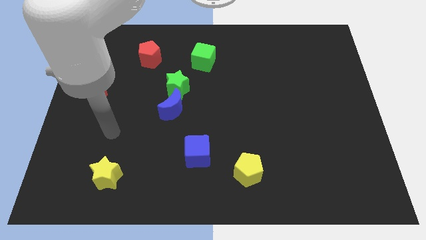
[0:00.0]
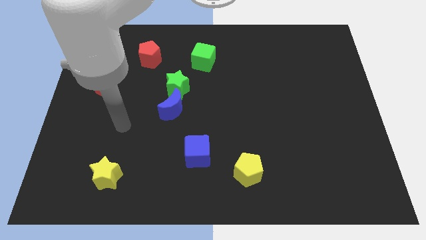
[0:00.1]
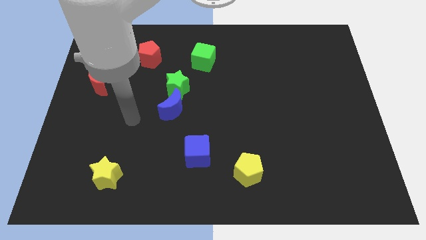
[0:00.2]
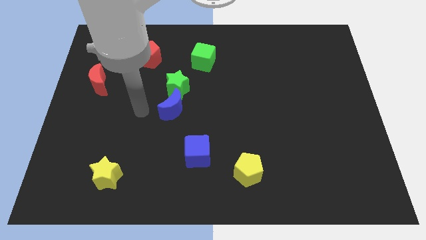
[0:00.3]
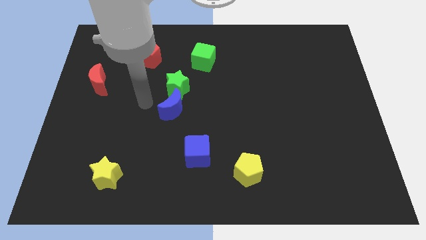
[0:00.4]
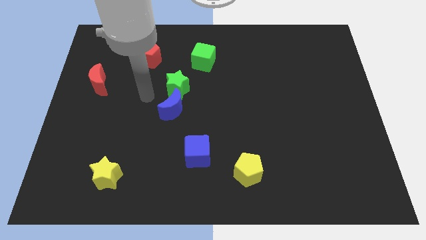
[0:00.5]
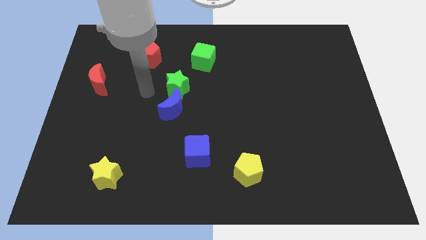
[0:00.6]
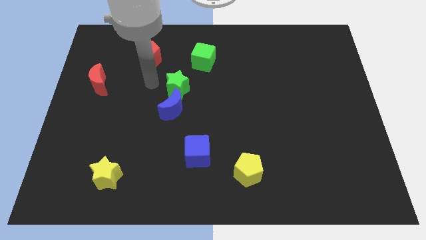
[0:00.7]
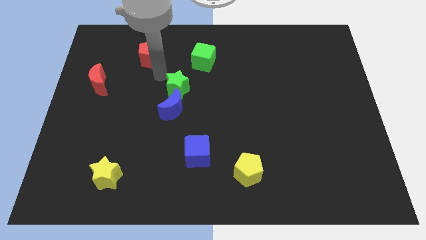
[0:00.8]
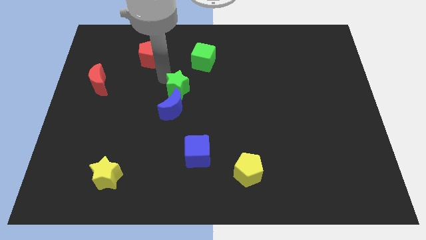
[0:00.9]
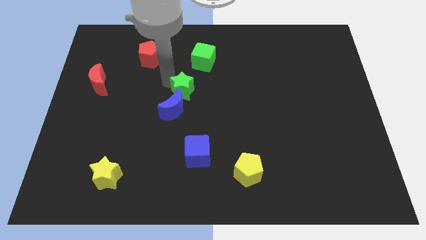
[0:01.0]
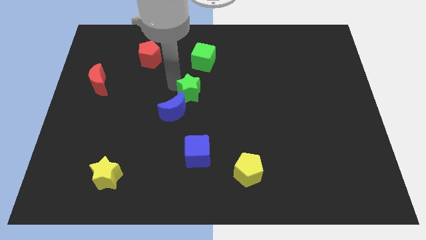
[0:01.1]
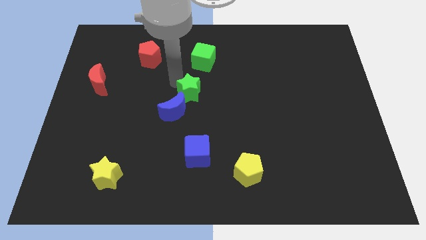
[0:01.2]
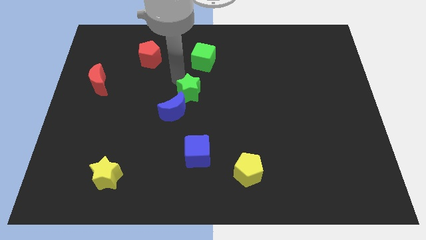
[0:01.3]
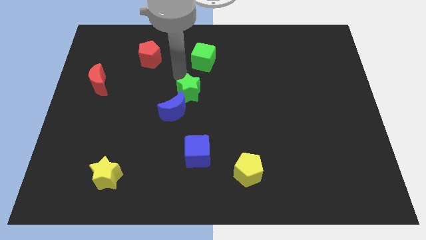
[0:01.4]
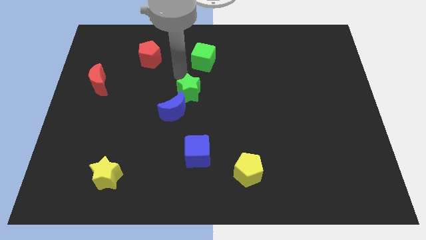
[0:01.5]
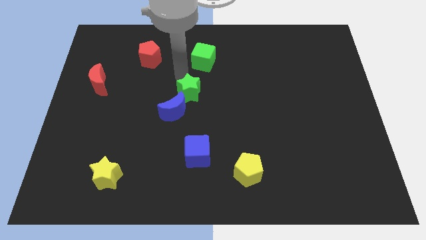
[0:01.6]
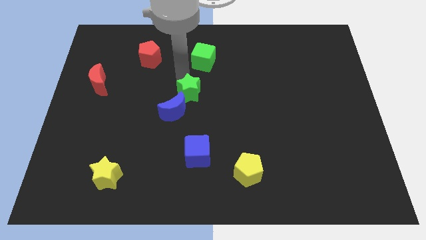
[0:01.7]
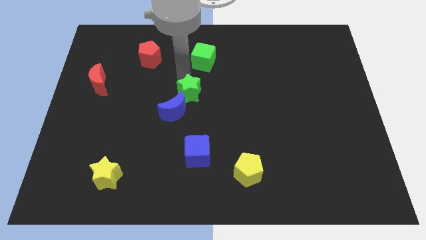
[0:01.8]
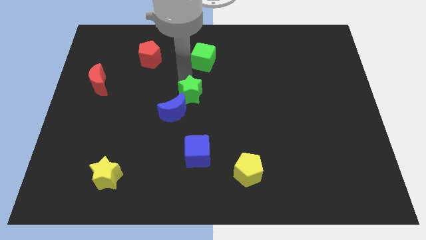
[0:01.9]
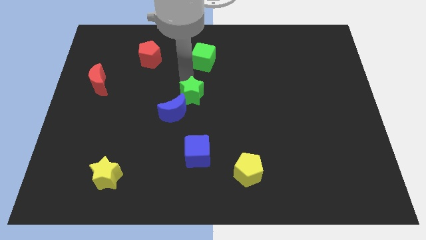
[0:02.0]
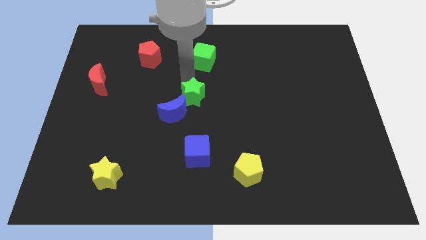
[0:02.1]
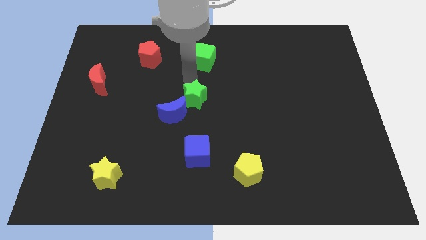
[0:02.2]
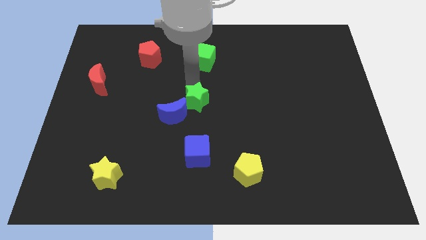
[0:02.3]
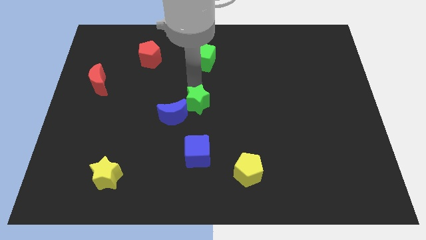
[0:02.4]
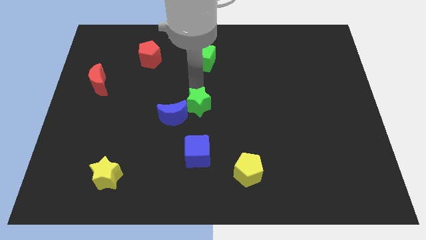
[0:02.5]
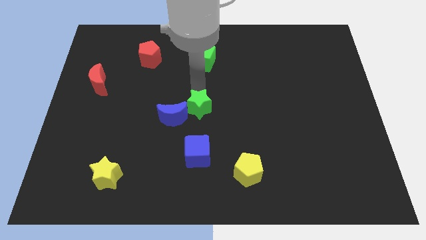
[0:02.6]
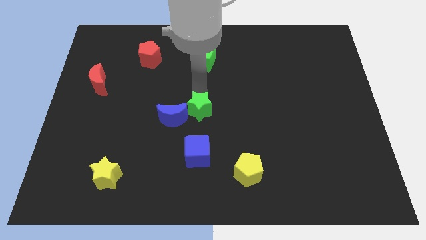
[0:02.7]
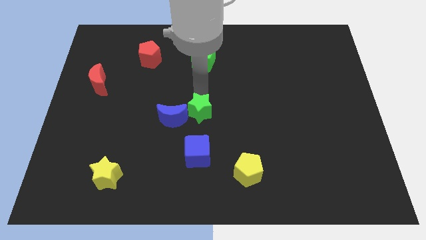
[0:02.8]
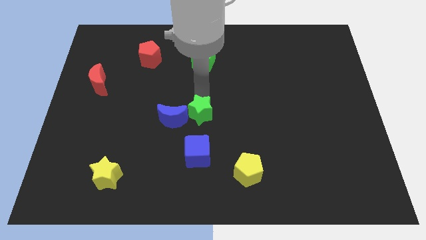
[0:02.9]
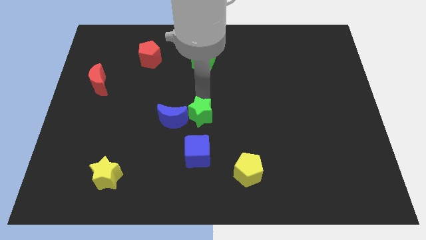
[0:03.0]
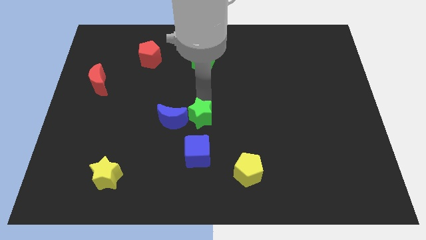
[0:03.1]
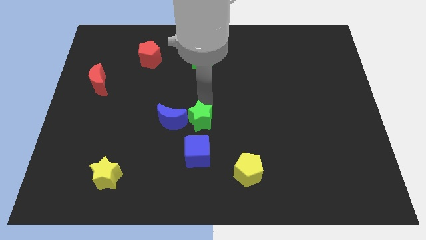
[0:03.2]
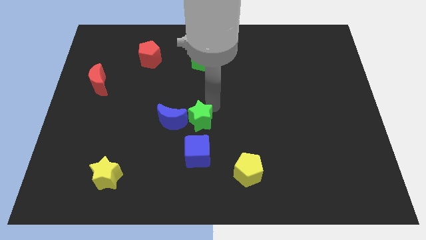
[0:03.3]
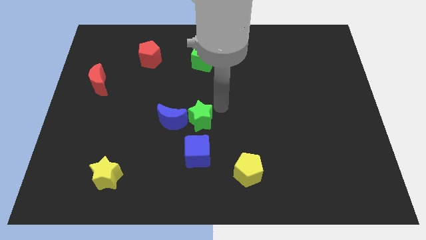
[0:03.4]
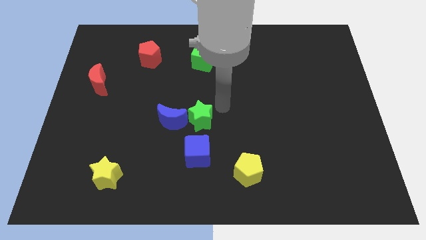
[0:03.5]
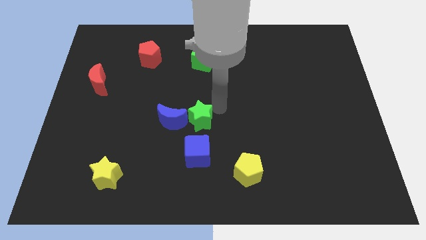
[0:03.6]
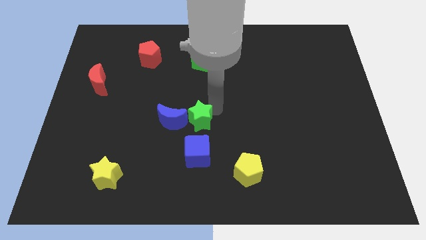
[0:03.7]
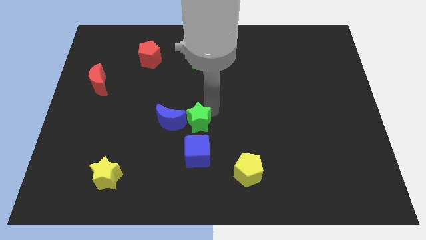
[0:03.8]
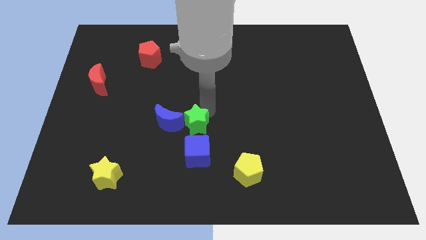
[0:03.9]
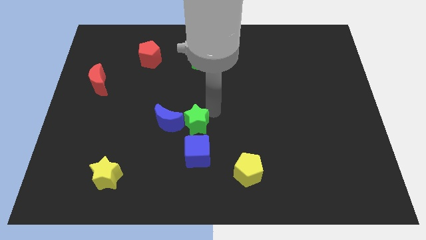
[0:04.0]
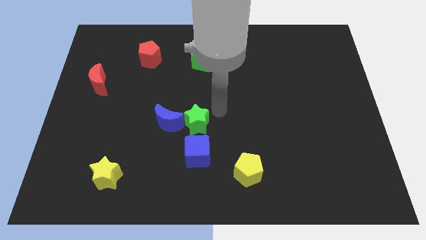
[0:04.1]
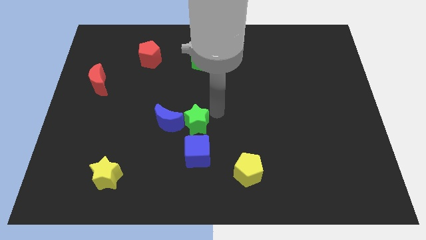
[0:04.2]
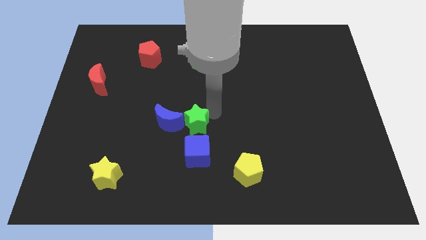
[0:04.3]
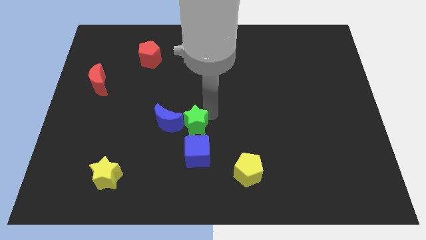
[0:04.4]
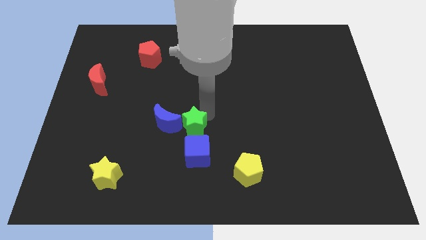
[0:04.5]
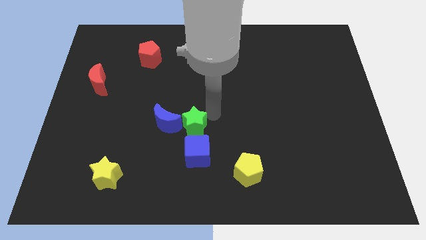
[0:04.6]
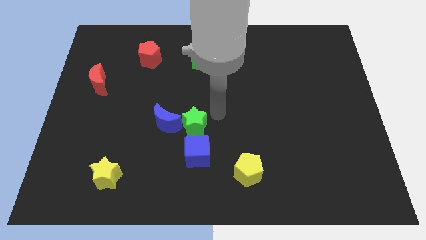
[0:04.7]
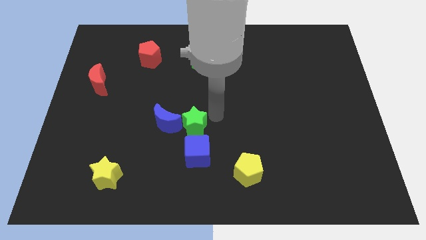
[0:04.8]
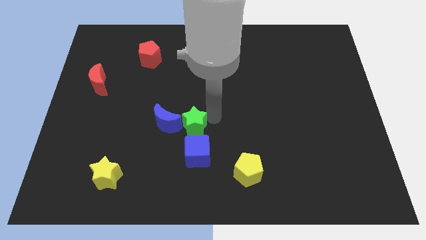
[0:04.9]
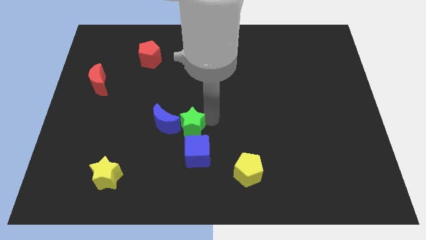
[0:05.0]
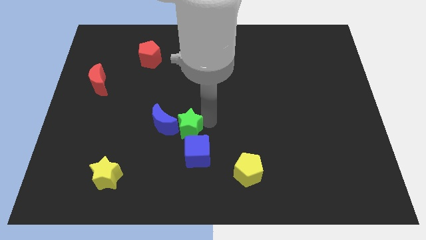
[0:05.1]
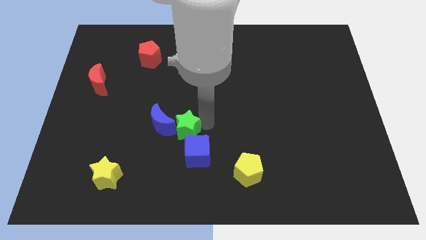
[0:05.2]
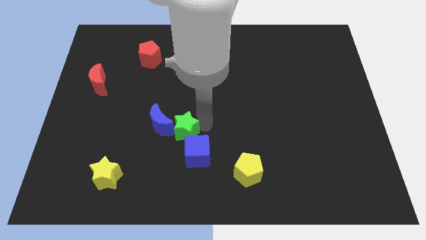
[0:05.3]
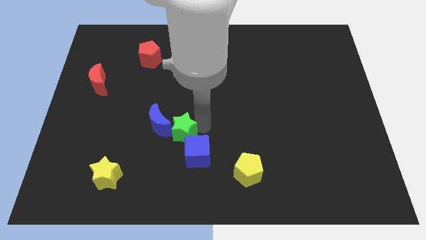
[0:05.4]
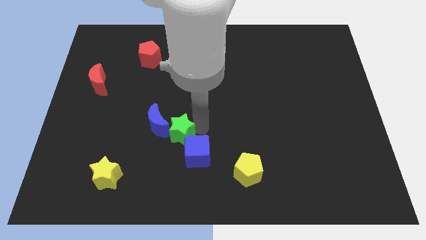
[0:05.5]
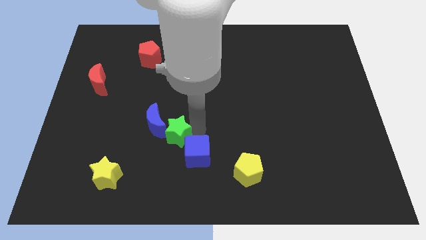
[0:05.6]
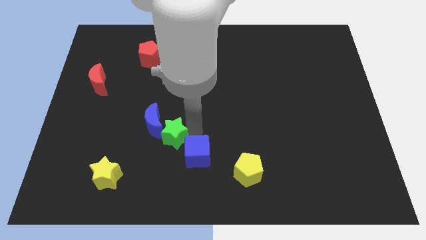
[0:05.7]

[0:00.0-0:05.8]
move the green star to the left side of the blue cube

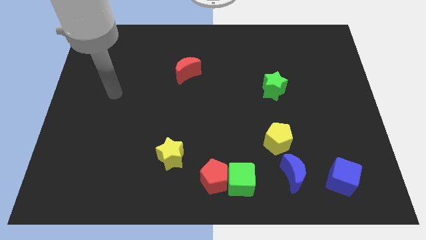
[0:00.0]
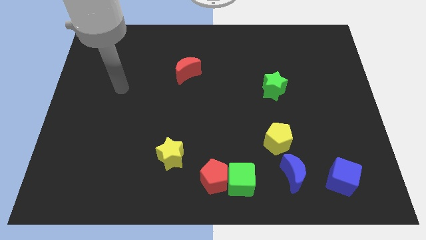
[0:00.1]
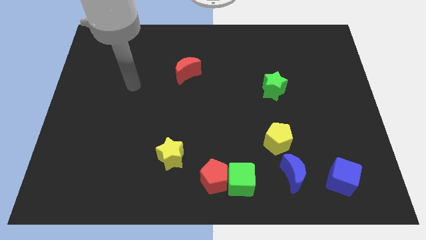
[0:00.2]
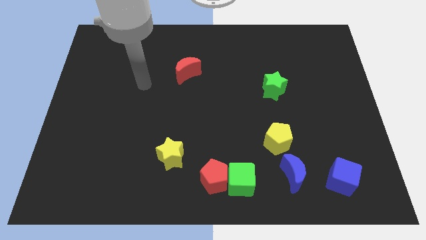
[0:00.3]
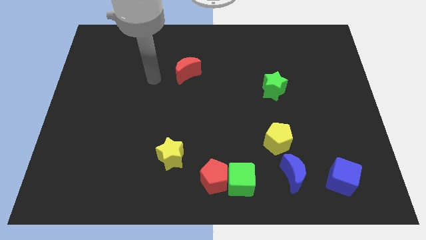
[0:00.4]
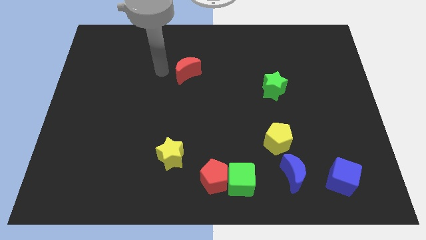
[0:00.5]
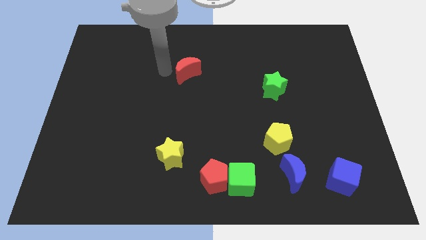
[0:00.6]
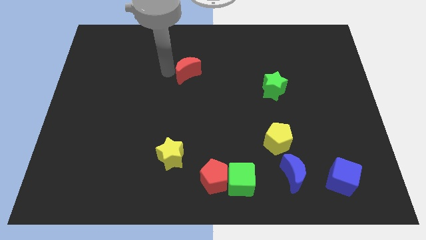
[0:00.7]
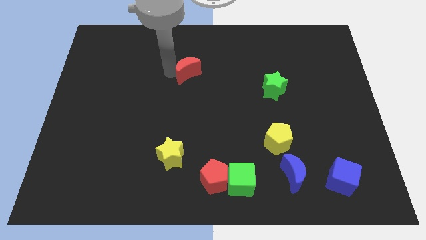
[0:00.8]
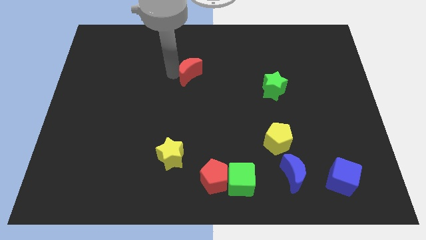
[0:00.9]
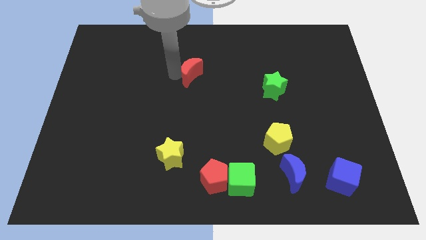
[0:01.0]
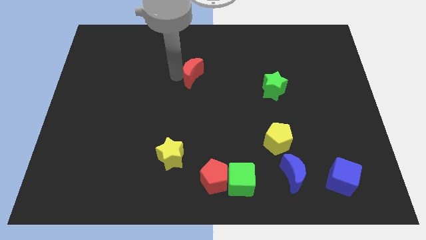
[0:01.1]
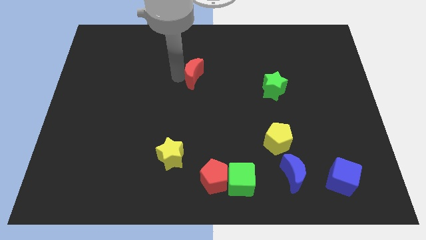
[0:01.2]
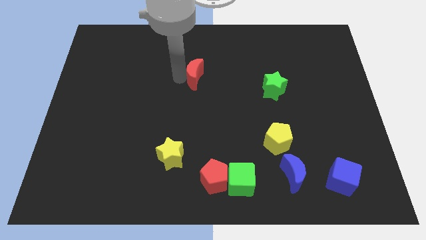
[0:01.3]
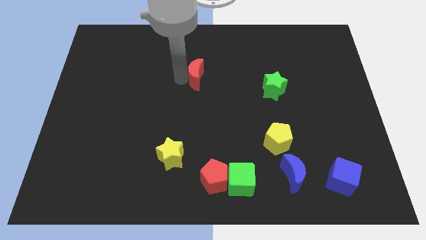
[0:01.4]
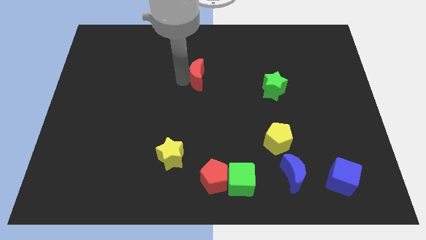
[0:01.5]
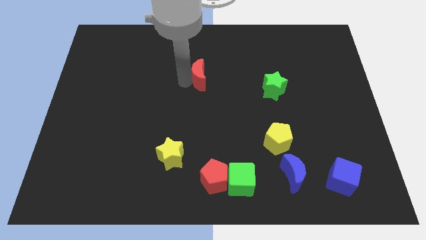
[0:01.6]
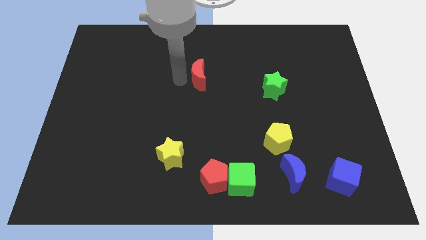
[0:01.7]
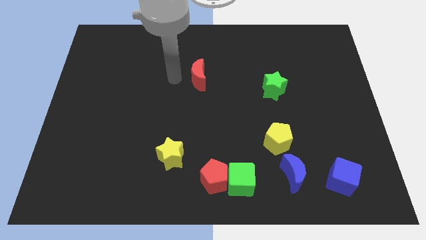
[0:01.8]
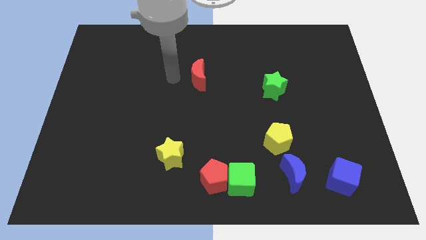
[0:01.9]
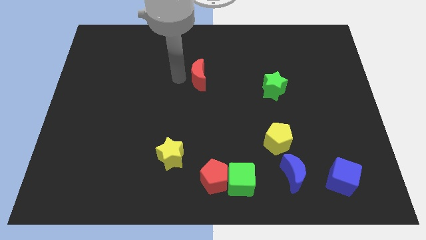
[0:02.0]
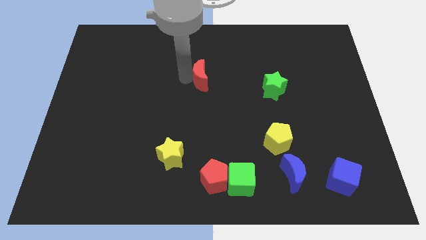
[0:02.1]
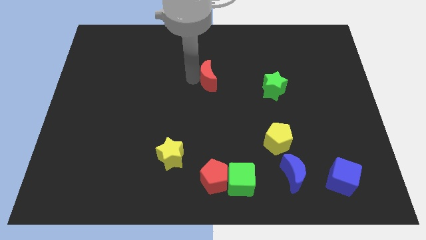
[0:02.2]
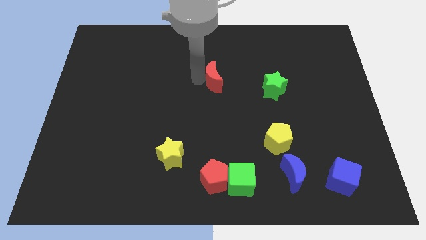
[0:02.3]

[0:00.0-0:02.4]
push the red moon to the left side of the green star
